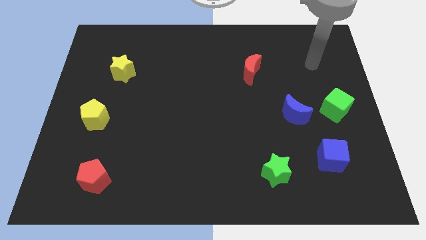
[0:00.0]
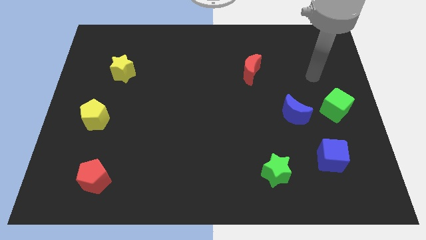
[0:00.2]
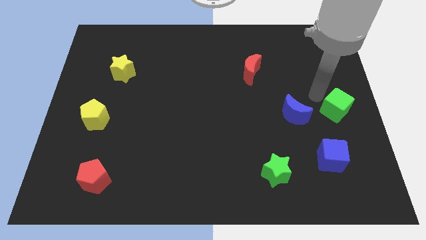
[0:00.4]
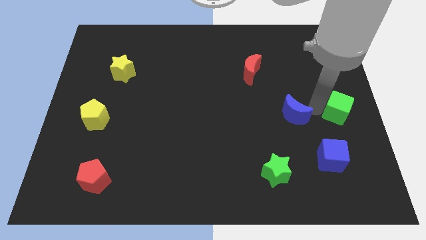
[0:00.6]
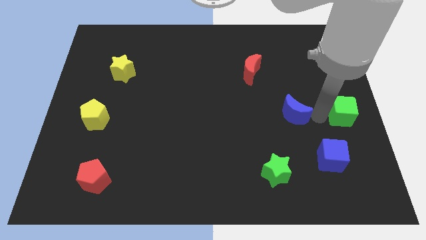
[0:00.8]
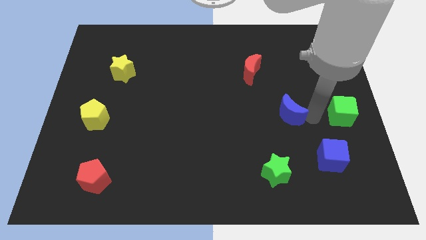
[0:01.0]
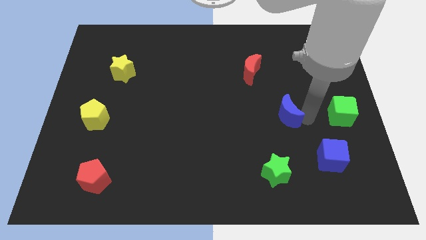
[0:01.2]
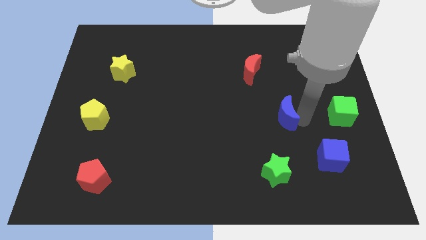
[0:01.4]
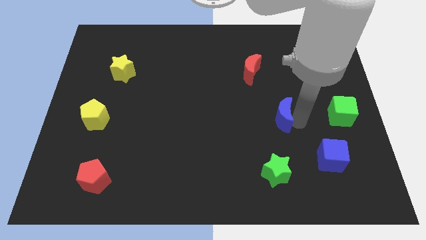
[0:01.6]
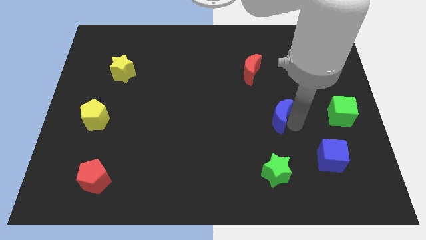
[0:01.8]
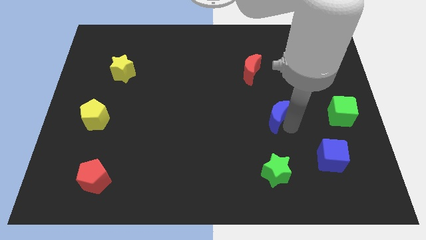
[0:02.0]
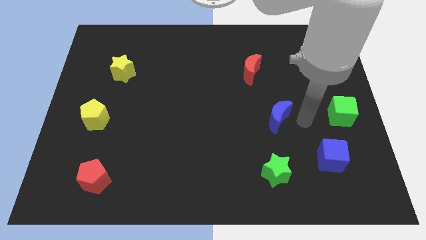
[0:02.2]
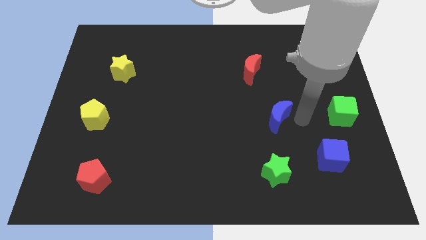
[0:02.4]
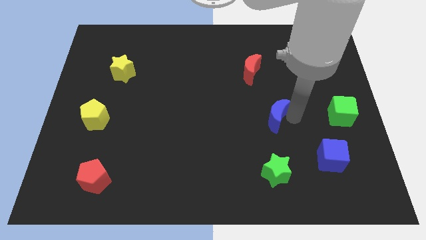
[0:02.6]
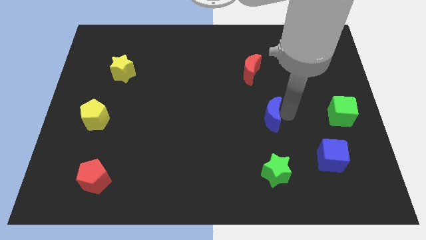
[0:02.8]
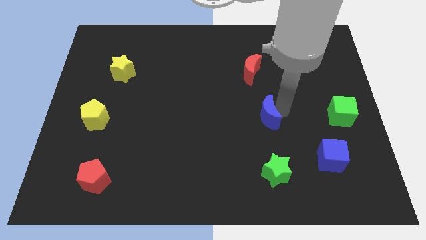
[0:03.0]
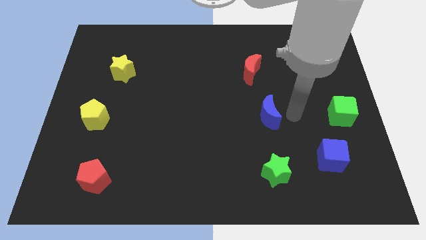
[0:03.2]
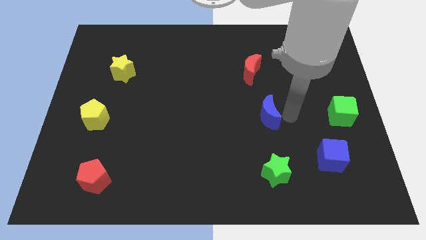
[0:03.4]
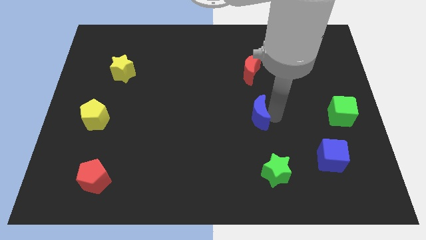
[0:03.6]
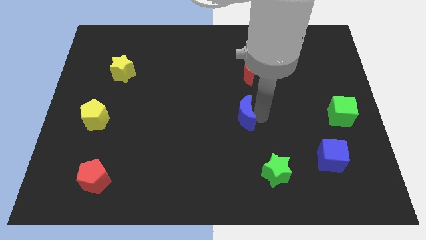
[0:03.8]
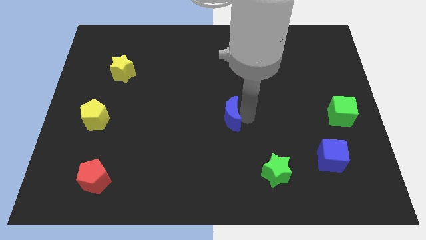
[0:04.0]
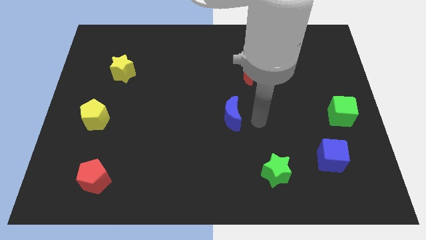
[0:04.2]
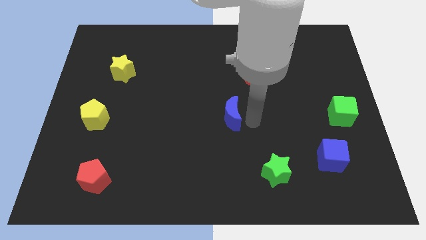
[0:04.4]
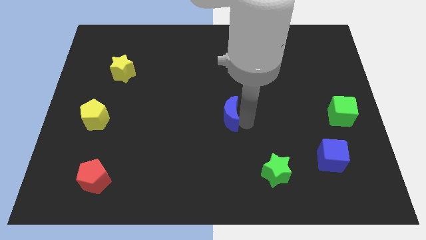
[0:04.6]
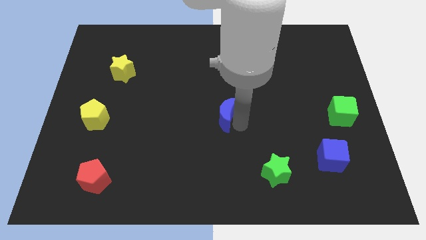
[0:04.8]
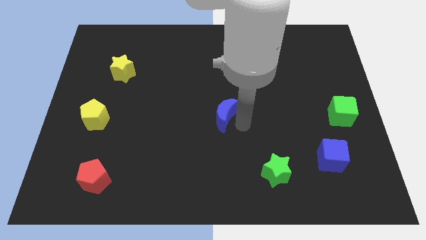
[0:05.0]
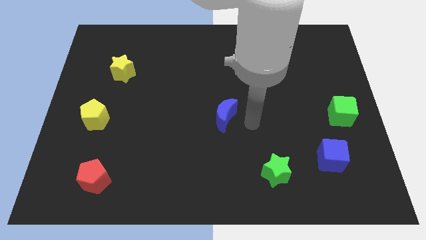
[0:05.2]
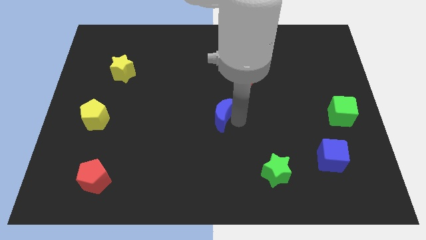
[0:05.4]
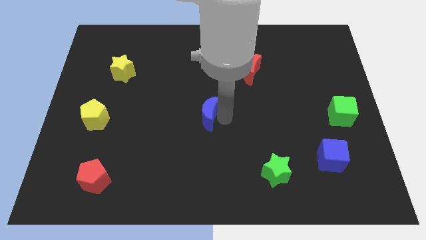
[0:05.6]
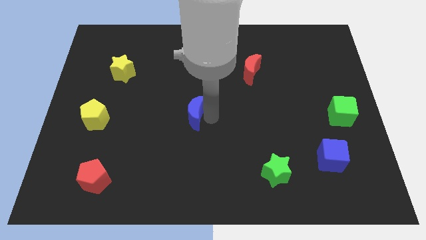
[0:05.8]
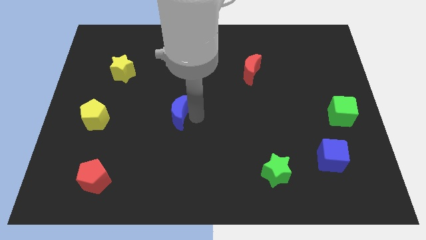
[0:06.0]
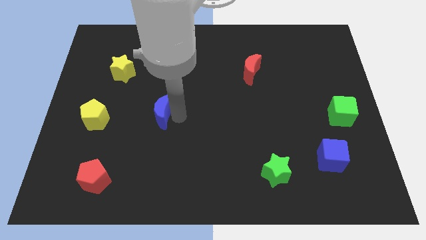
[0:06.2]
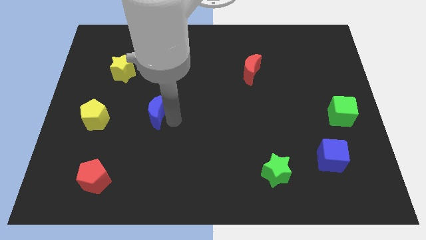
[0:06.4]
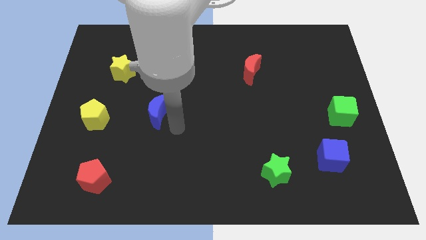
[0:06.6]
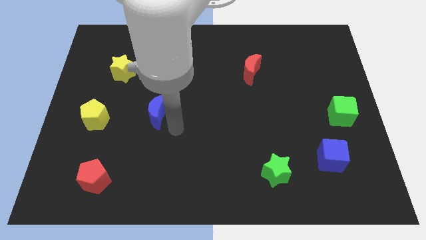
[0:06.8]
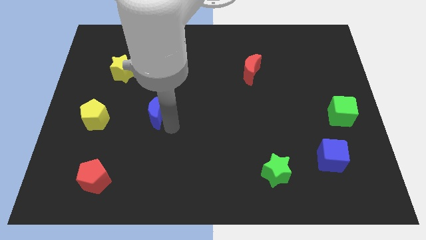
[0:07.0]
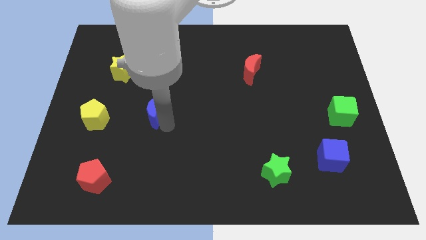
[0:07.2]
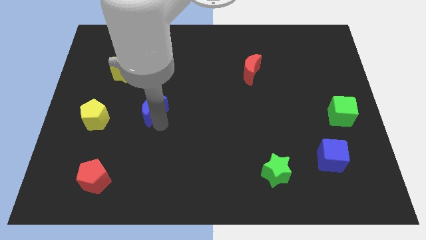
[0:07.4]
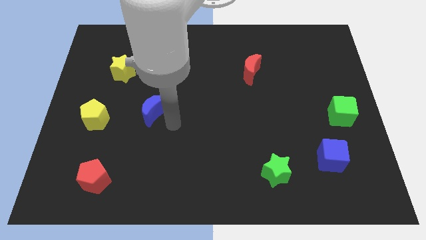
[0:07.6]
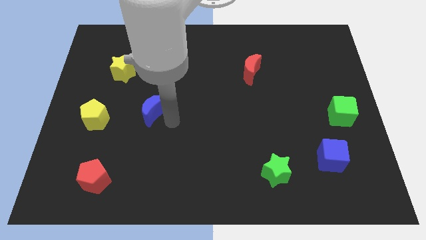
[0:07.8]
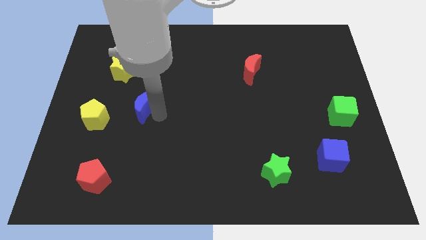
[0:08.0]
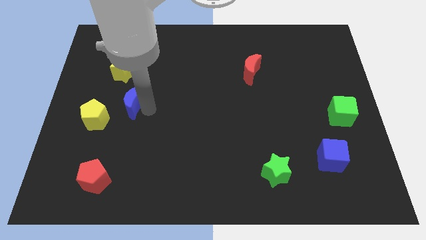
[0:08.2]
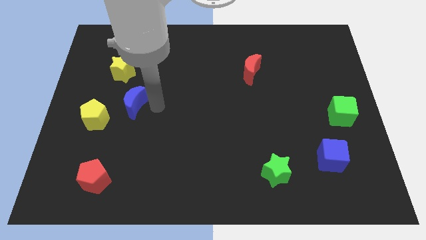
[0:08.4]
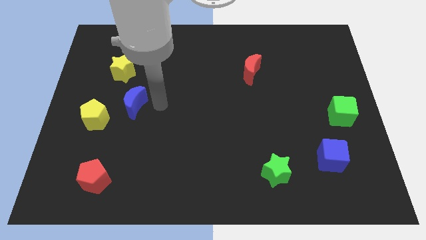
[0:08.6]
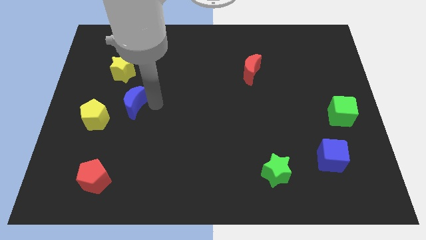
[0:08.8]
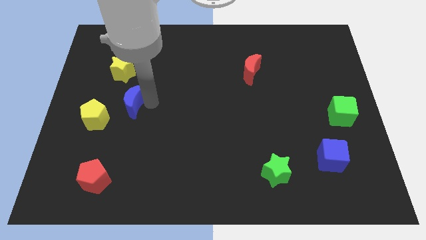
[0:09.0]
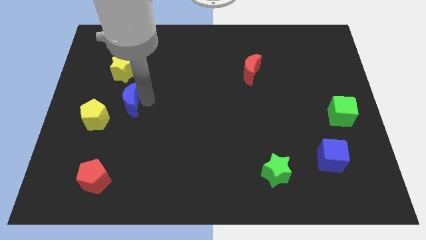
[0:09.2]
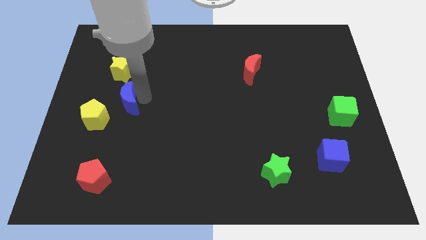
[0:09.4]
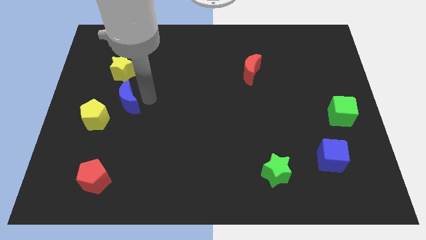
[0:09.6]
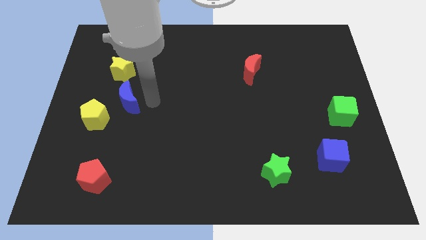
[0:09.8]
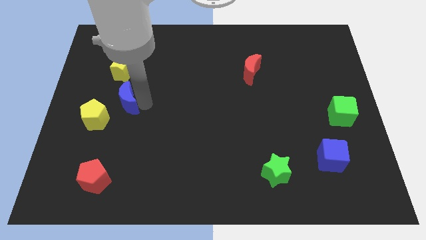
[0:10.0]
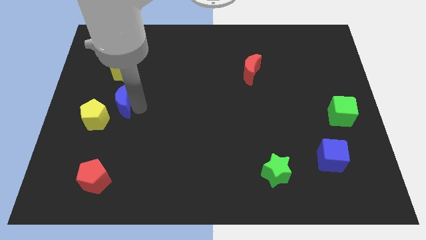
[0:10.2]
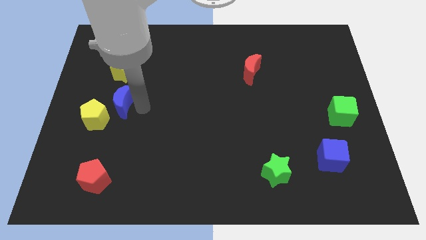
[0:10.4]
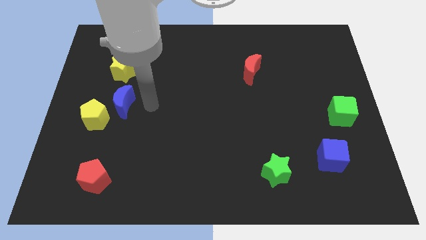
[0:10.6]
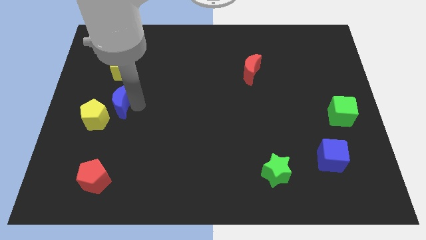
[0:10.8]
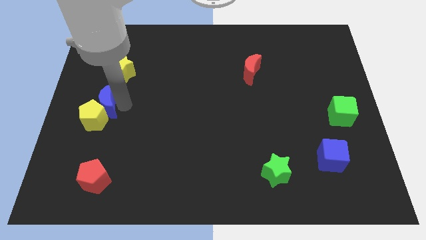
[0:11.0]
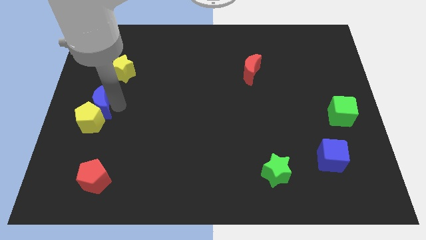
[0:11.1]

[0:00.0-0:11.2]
push the blue moon to the center left
